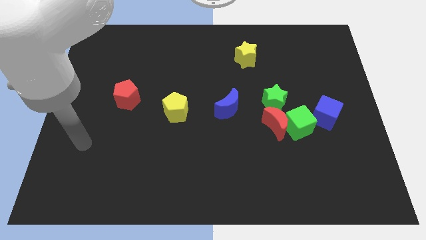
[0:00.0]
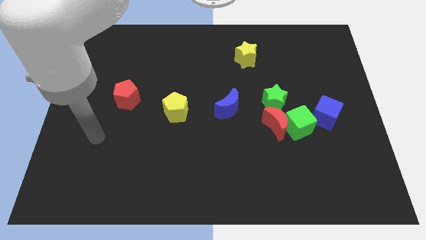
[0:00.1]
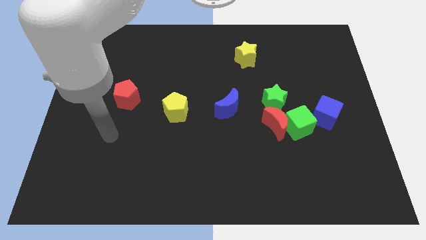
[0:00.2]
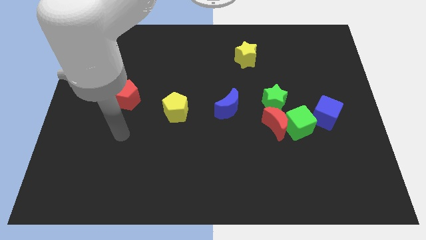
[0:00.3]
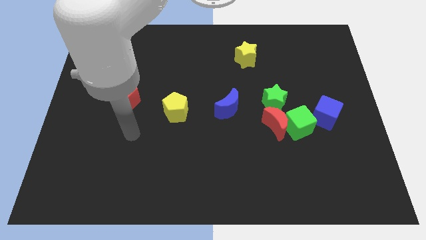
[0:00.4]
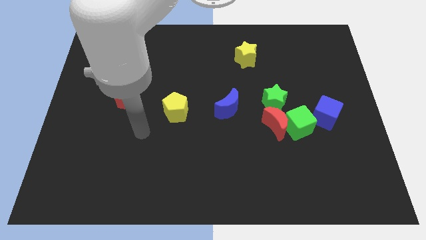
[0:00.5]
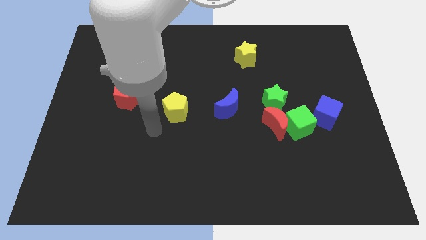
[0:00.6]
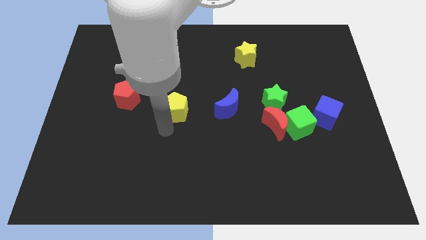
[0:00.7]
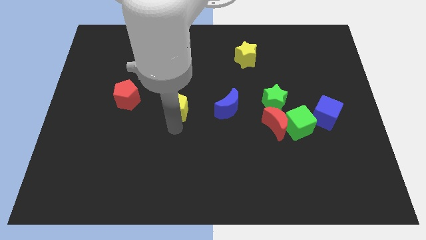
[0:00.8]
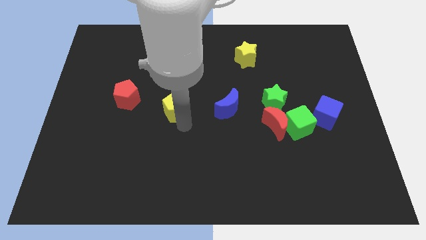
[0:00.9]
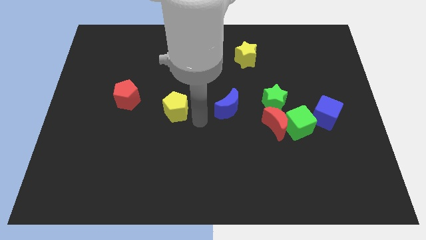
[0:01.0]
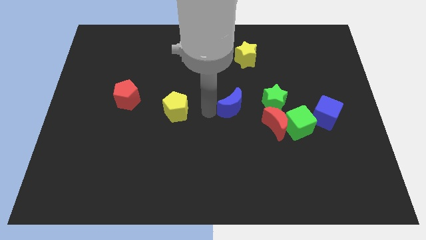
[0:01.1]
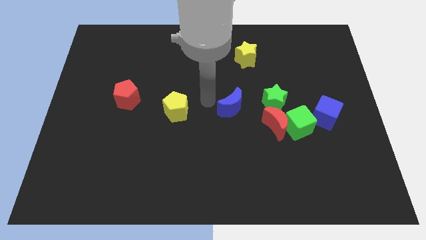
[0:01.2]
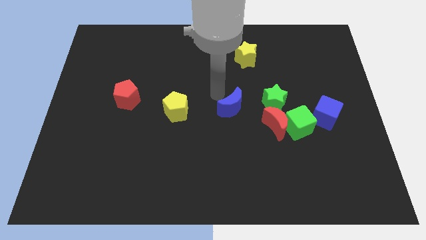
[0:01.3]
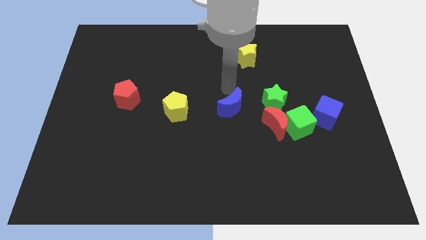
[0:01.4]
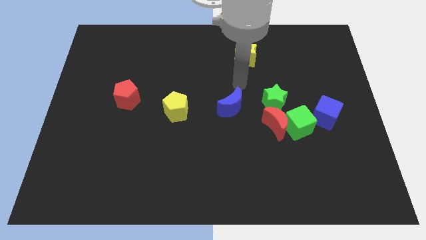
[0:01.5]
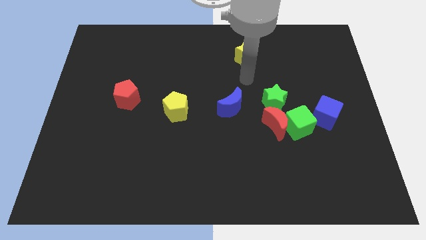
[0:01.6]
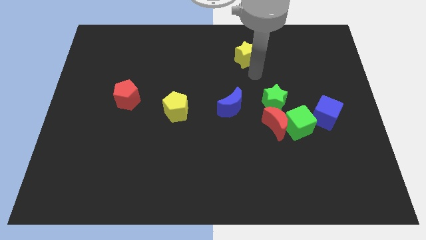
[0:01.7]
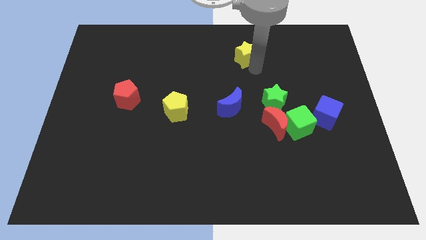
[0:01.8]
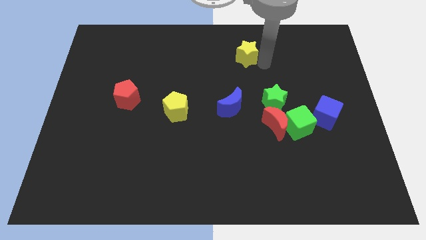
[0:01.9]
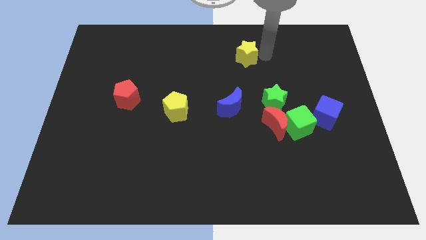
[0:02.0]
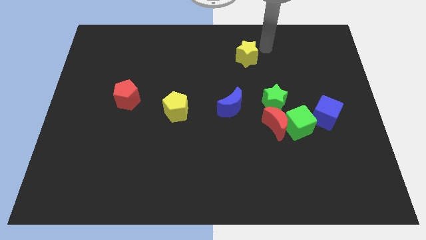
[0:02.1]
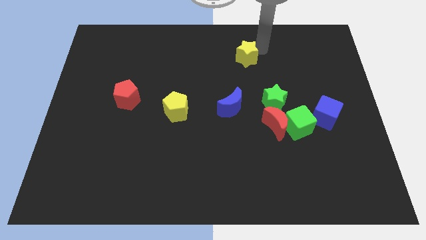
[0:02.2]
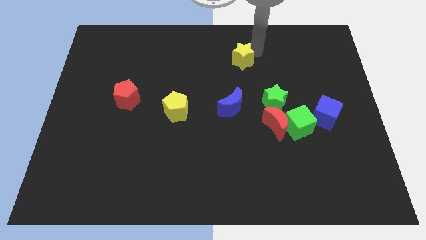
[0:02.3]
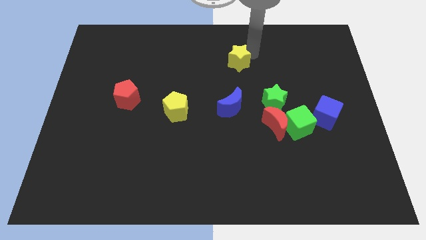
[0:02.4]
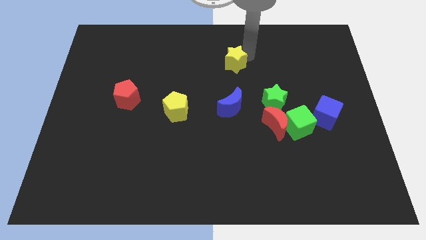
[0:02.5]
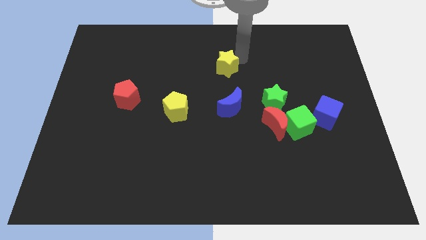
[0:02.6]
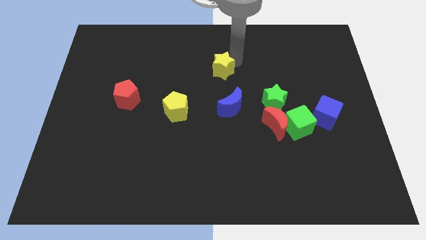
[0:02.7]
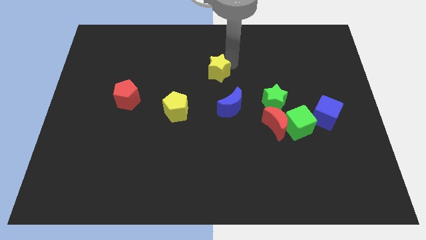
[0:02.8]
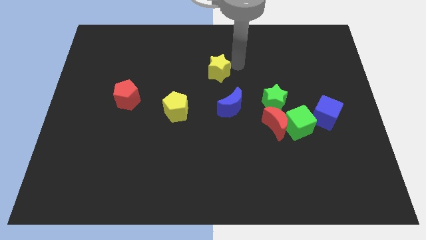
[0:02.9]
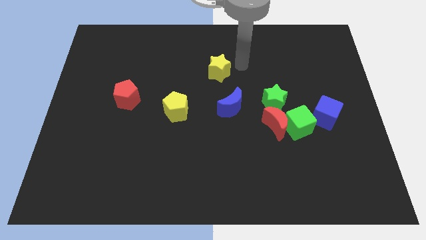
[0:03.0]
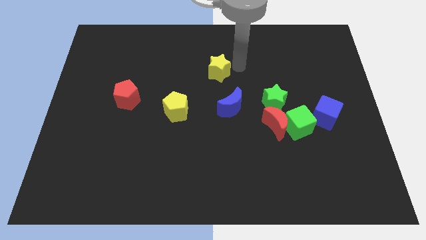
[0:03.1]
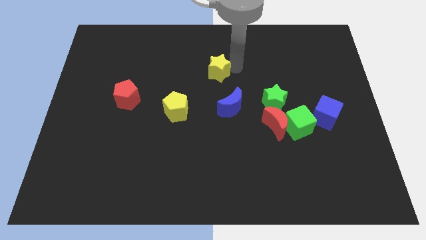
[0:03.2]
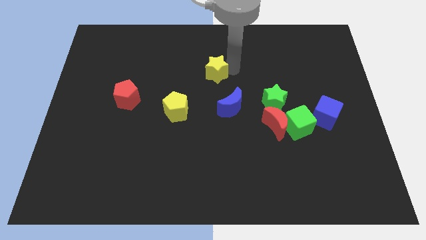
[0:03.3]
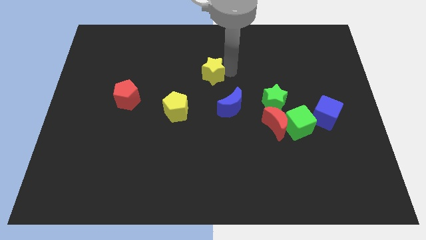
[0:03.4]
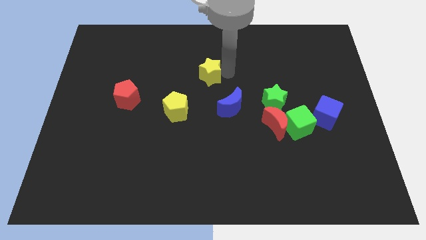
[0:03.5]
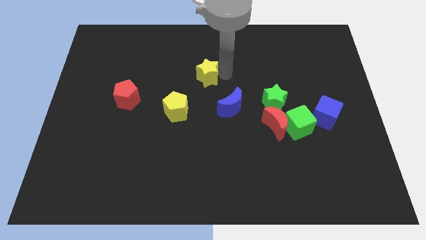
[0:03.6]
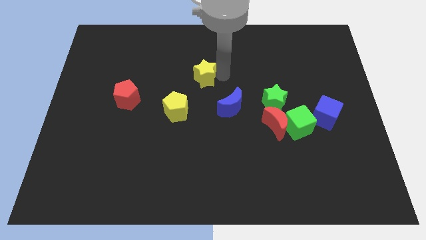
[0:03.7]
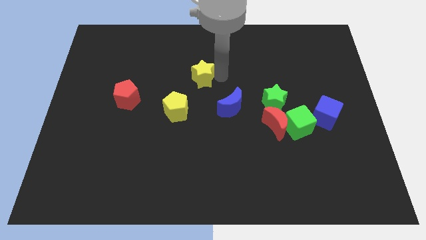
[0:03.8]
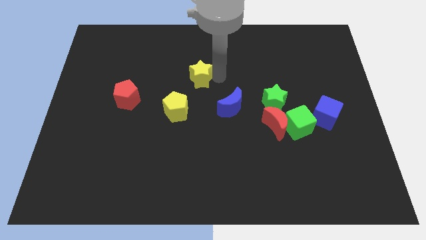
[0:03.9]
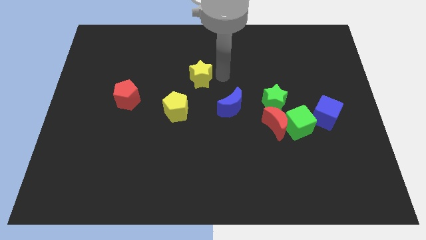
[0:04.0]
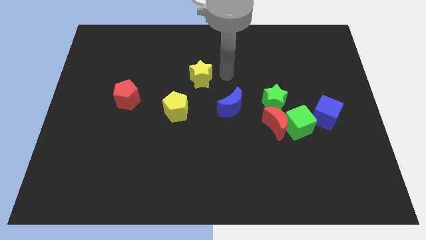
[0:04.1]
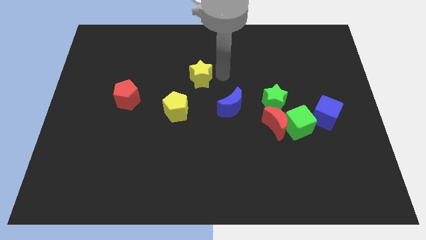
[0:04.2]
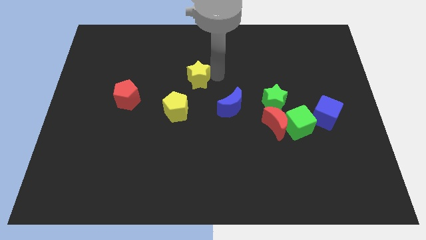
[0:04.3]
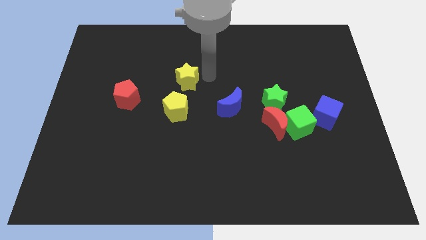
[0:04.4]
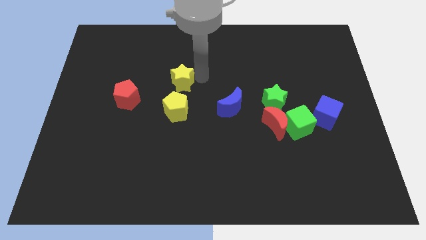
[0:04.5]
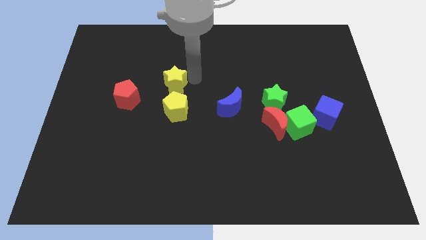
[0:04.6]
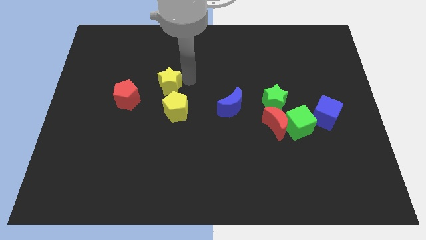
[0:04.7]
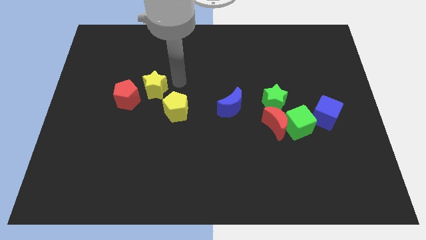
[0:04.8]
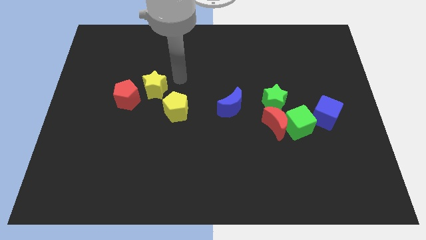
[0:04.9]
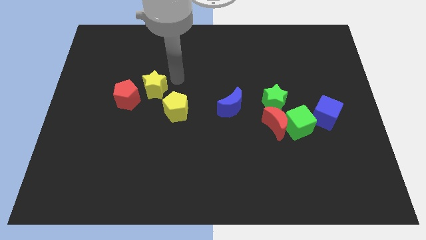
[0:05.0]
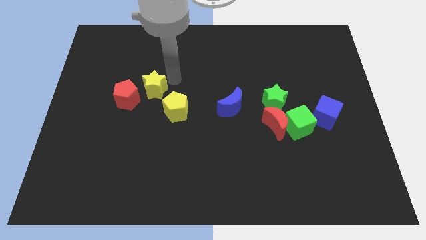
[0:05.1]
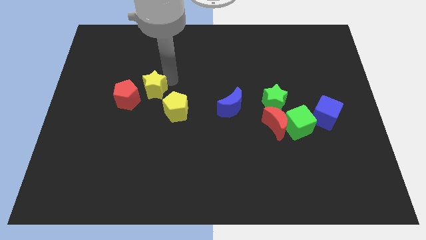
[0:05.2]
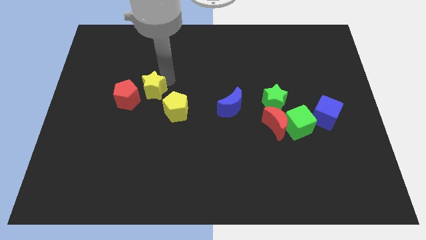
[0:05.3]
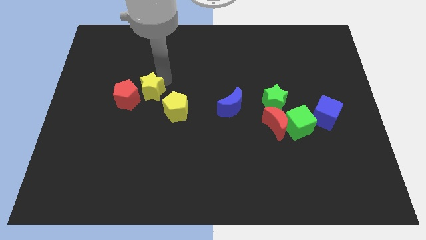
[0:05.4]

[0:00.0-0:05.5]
move the yellow star to the red pentagon

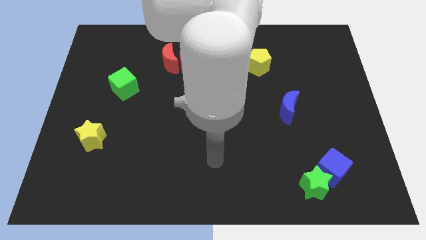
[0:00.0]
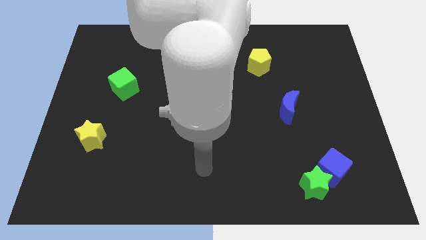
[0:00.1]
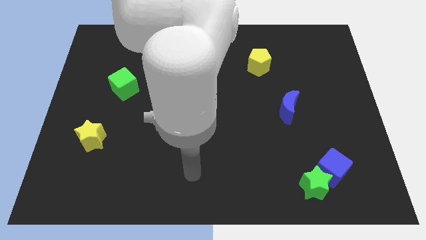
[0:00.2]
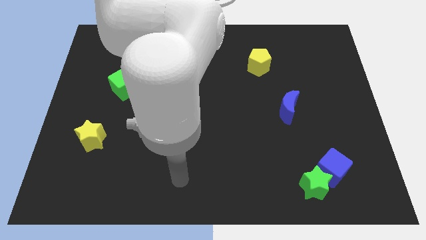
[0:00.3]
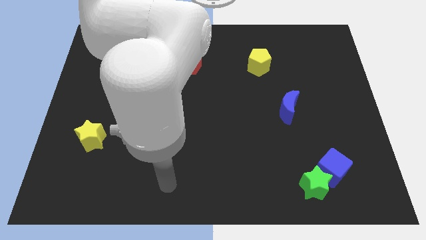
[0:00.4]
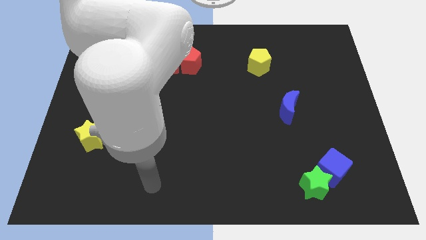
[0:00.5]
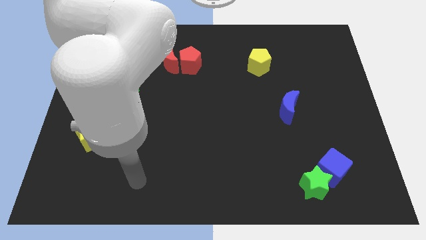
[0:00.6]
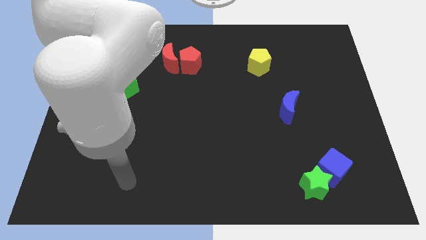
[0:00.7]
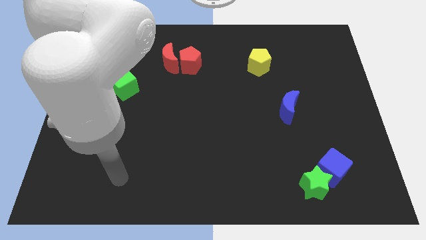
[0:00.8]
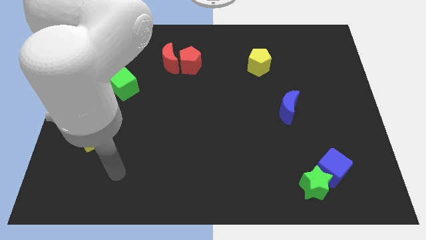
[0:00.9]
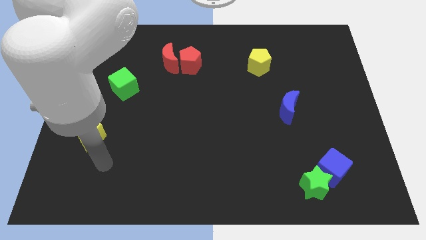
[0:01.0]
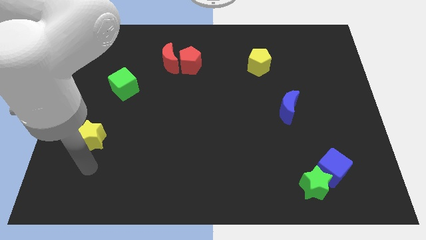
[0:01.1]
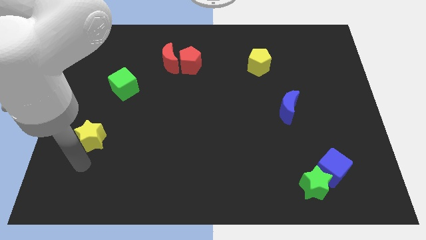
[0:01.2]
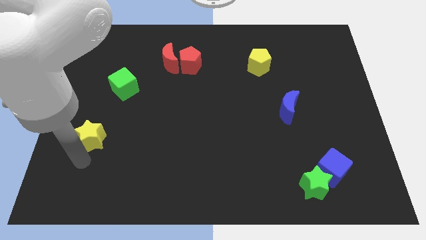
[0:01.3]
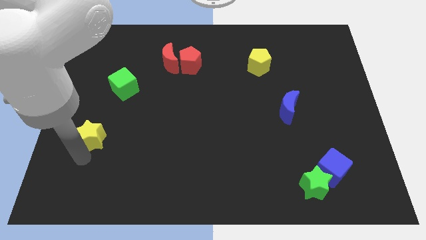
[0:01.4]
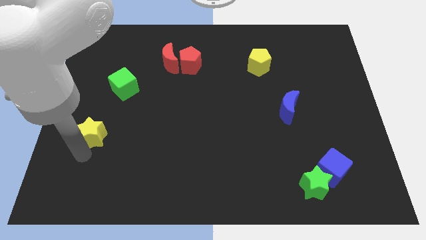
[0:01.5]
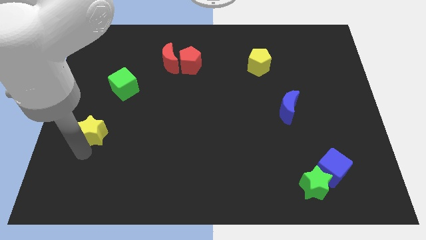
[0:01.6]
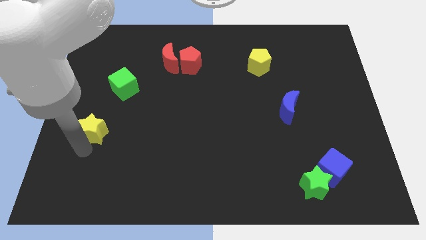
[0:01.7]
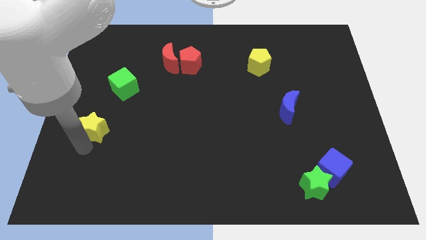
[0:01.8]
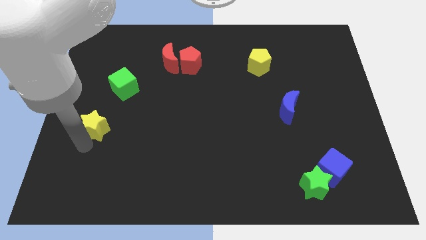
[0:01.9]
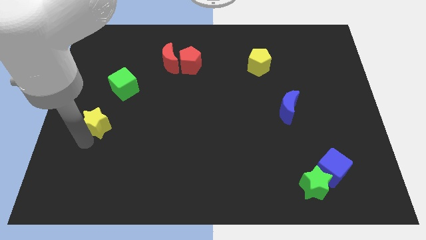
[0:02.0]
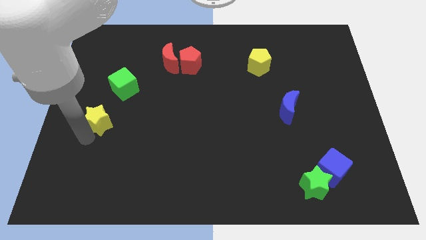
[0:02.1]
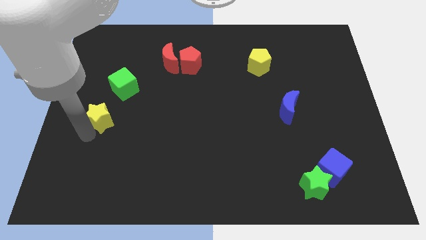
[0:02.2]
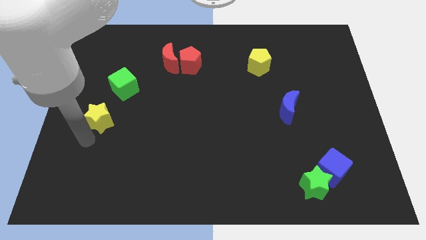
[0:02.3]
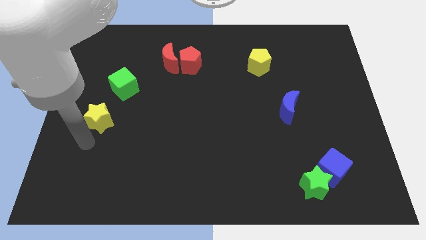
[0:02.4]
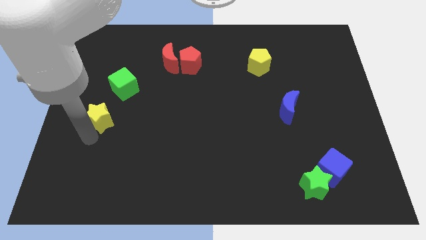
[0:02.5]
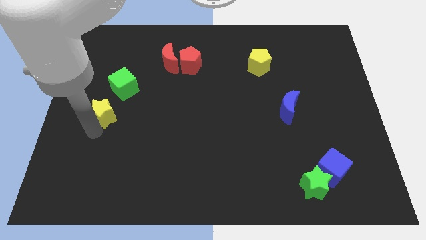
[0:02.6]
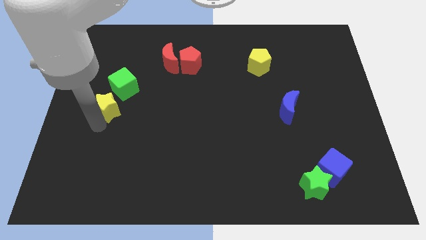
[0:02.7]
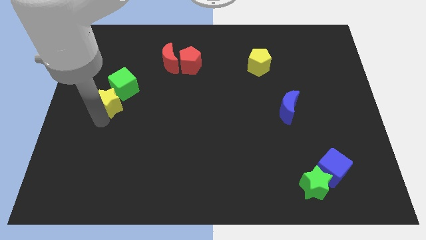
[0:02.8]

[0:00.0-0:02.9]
slide the yellow star close to the green cube
